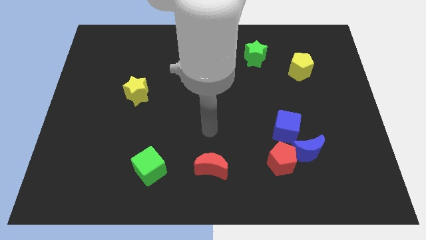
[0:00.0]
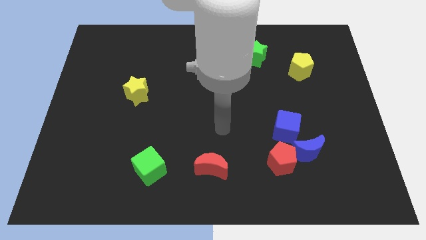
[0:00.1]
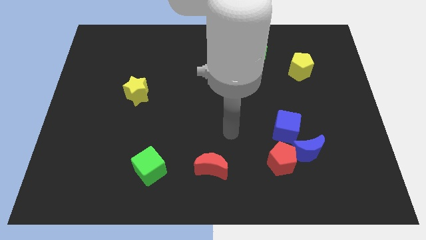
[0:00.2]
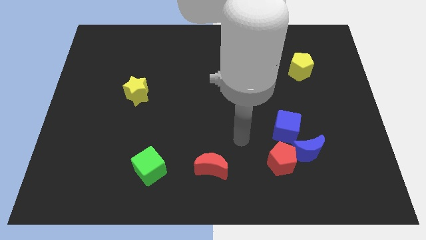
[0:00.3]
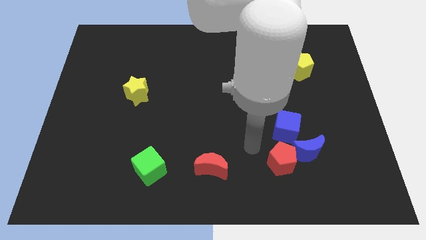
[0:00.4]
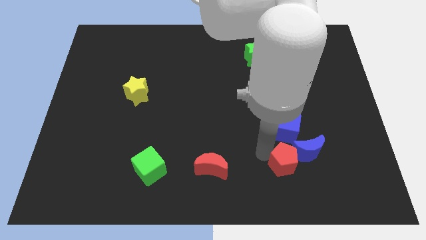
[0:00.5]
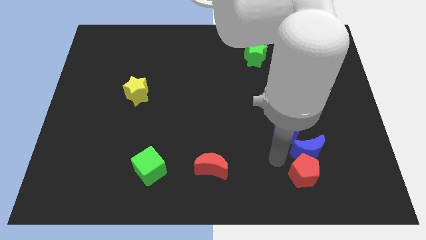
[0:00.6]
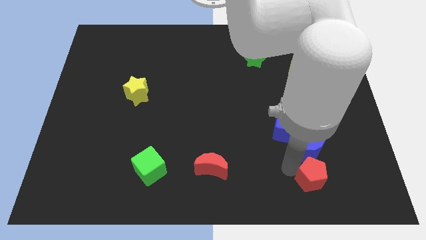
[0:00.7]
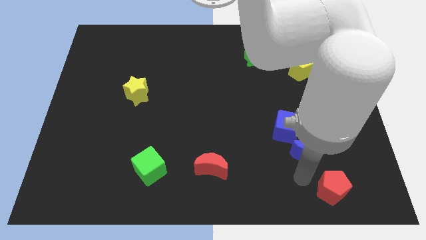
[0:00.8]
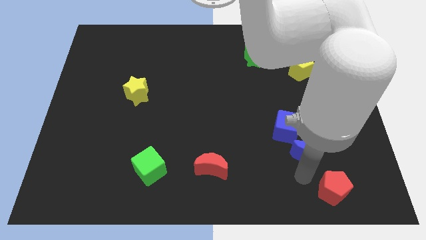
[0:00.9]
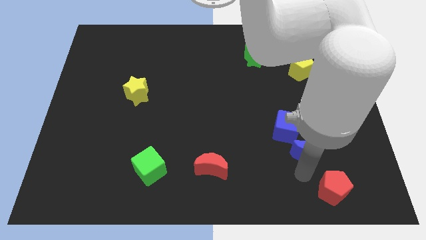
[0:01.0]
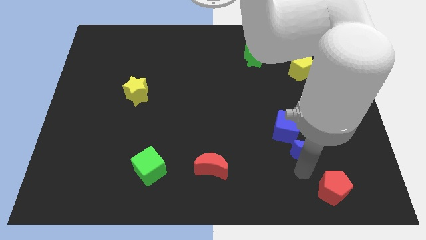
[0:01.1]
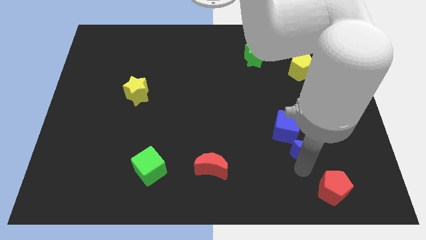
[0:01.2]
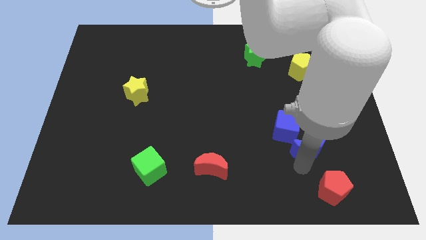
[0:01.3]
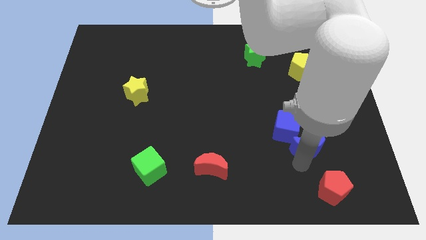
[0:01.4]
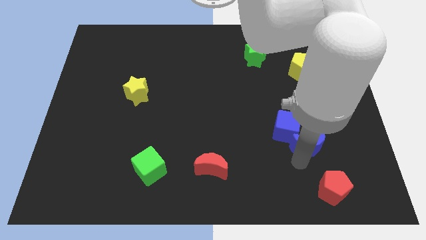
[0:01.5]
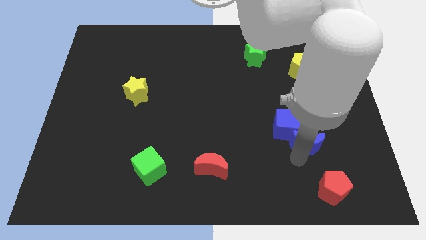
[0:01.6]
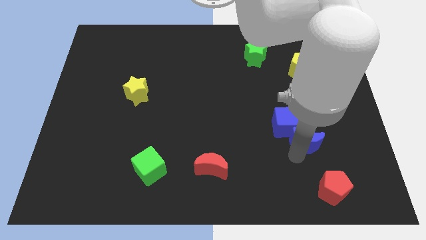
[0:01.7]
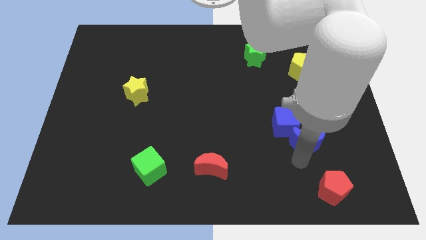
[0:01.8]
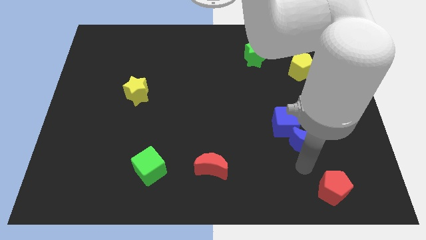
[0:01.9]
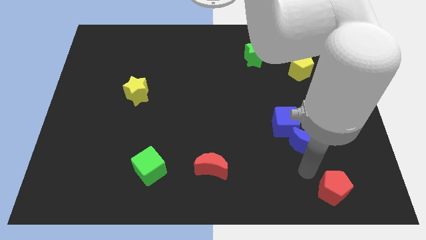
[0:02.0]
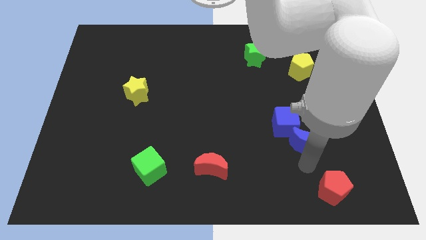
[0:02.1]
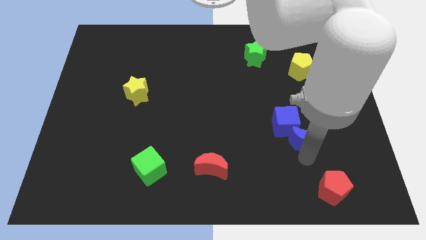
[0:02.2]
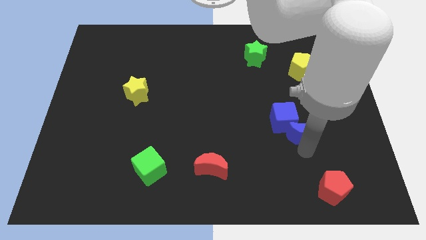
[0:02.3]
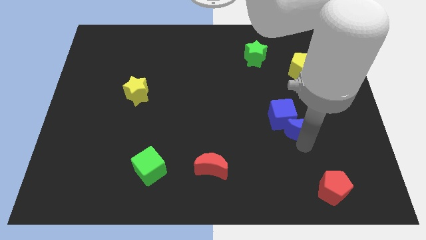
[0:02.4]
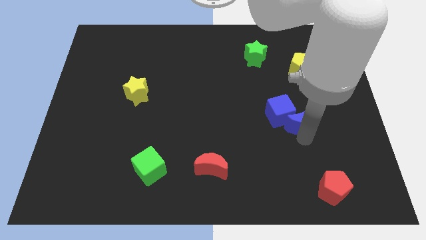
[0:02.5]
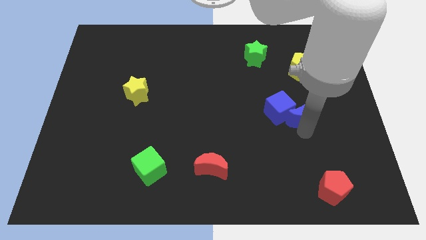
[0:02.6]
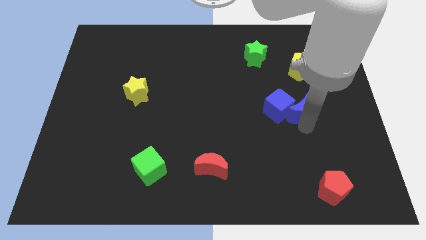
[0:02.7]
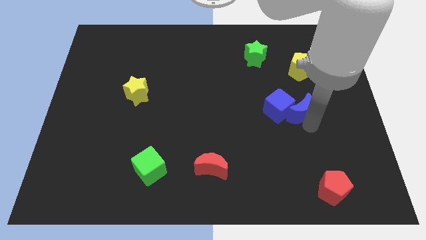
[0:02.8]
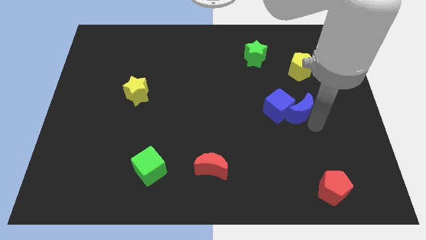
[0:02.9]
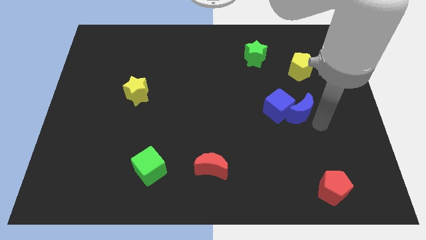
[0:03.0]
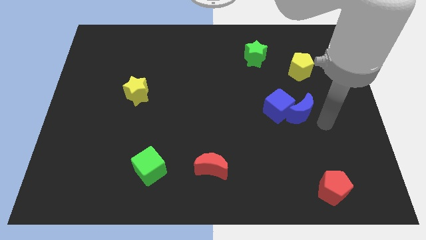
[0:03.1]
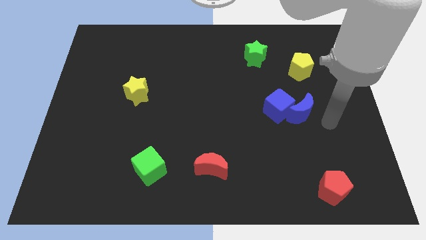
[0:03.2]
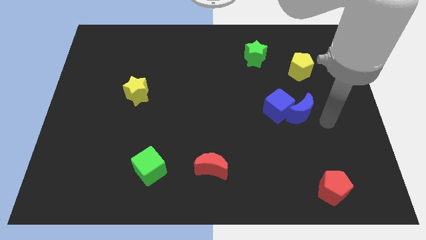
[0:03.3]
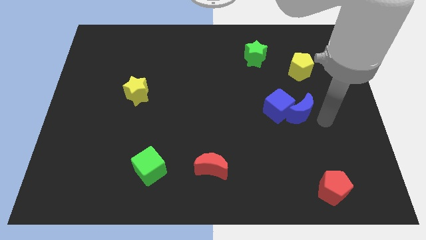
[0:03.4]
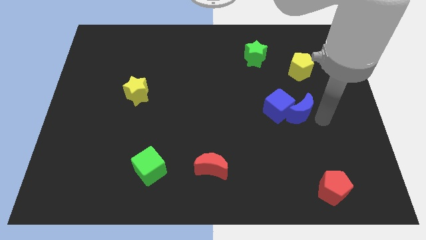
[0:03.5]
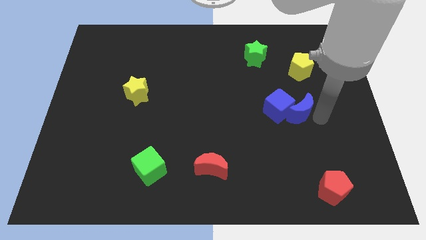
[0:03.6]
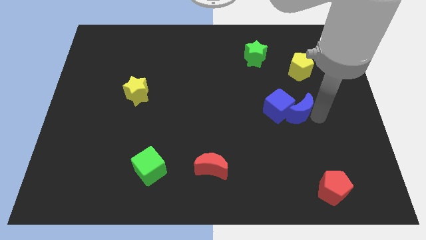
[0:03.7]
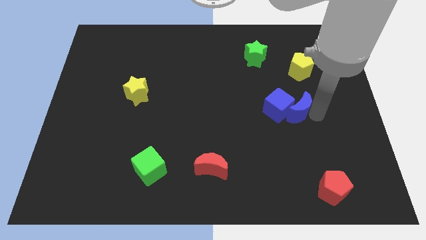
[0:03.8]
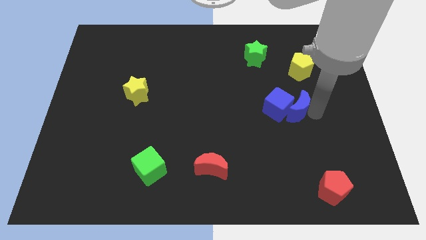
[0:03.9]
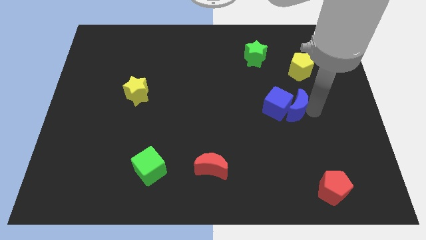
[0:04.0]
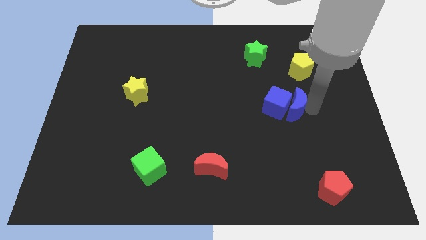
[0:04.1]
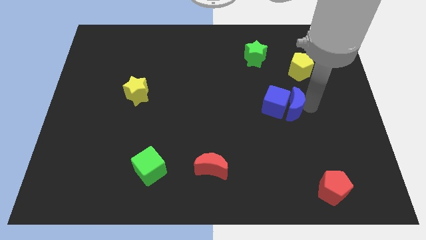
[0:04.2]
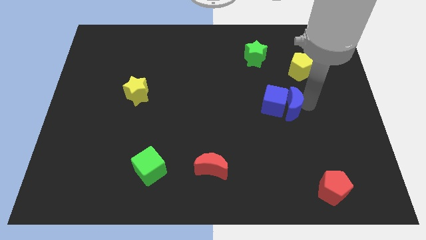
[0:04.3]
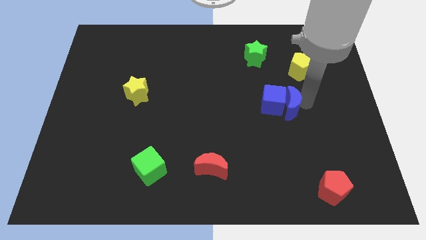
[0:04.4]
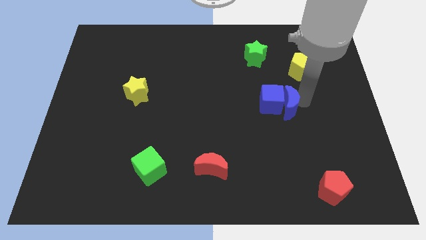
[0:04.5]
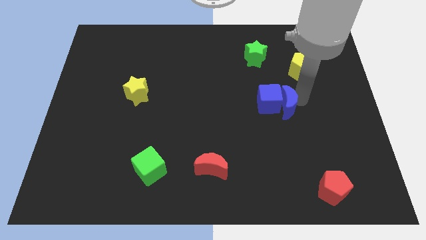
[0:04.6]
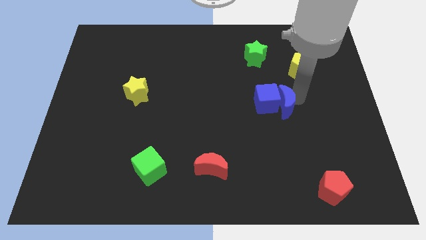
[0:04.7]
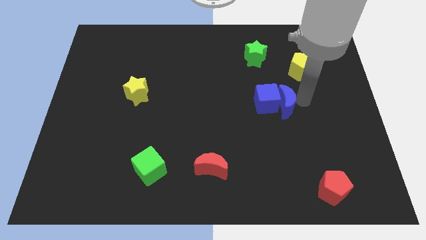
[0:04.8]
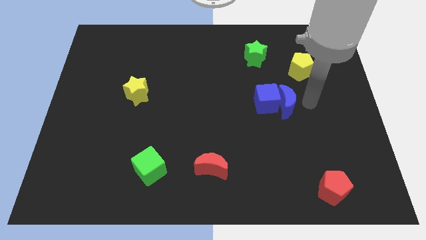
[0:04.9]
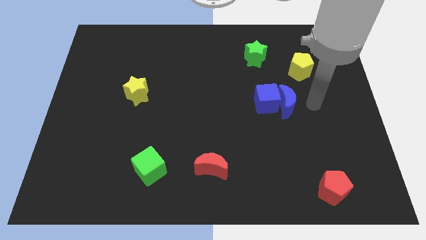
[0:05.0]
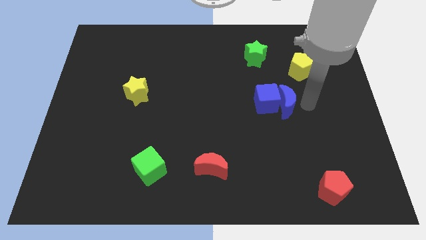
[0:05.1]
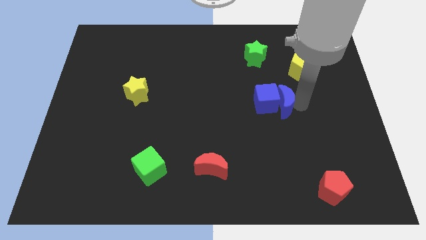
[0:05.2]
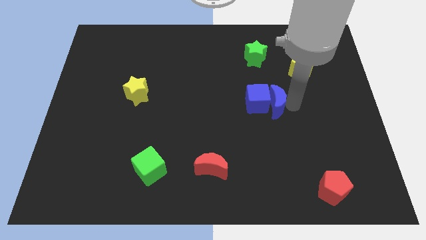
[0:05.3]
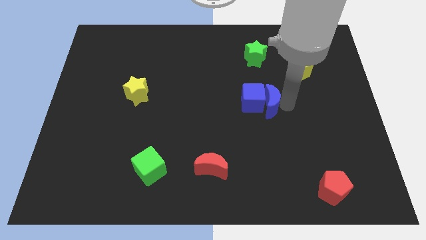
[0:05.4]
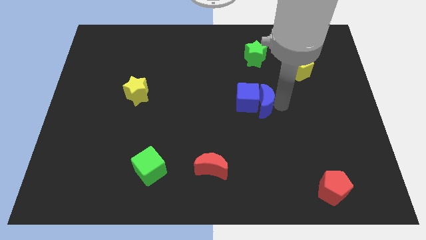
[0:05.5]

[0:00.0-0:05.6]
push the blue moon to the middle

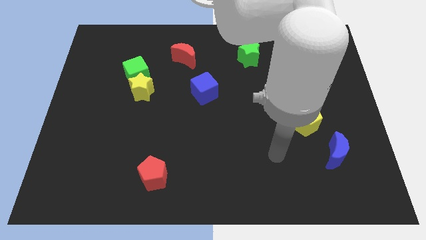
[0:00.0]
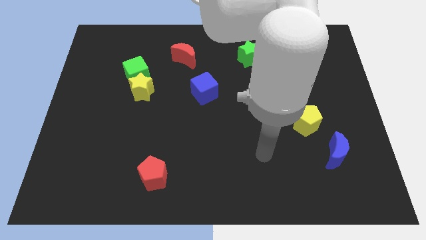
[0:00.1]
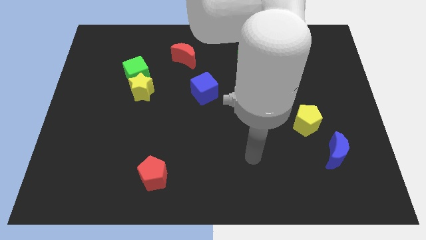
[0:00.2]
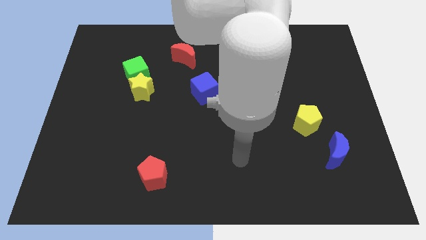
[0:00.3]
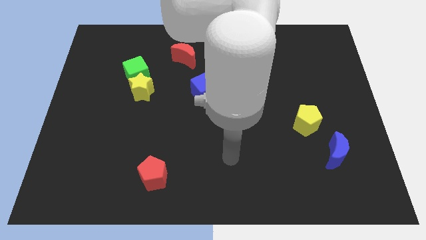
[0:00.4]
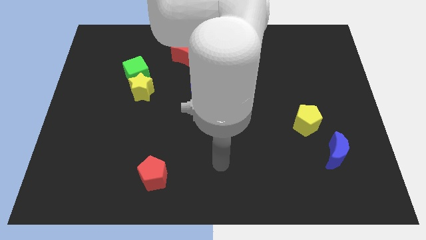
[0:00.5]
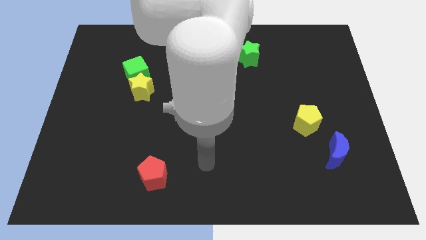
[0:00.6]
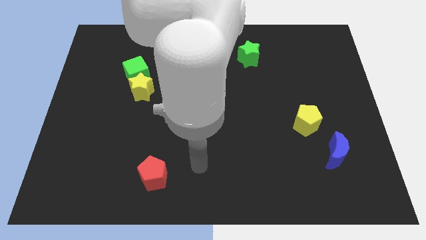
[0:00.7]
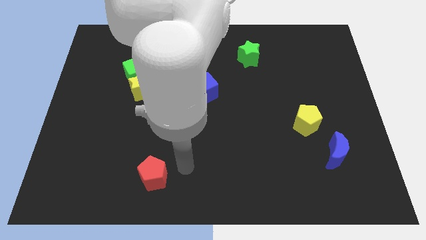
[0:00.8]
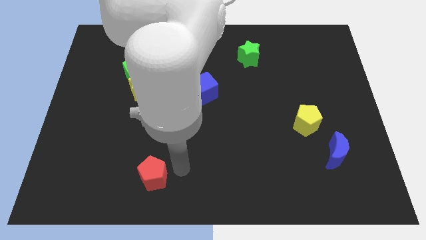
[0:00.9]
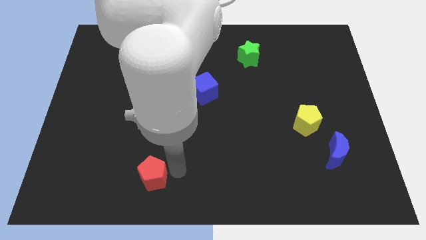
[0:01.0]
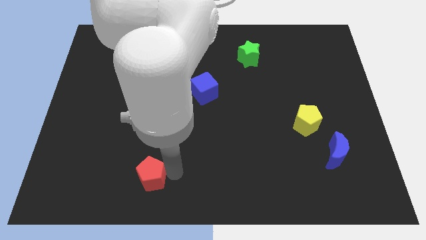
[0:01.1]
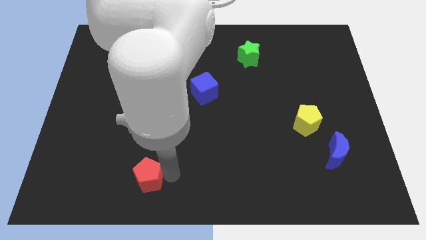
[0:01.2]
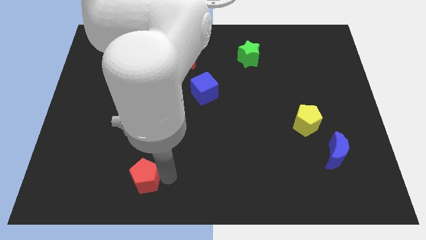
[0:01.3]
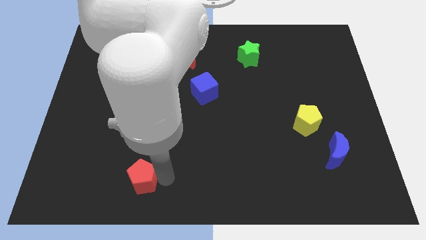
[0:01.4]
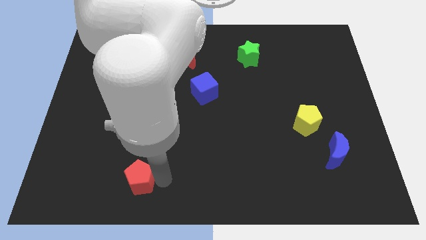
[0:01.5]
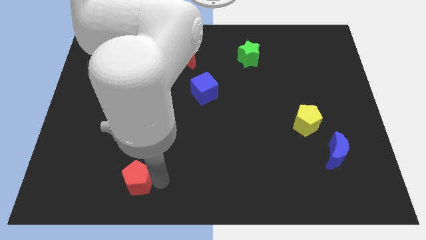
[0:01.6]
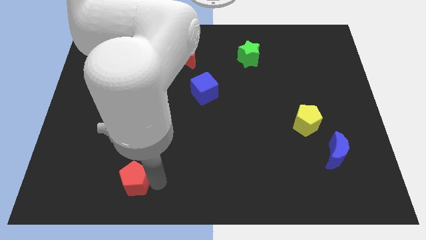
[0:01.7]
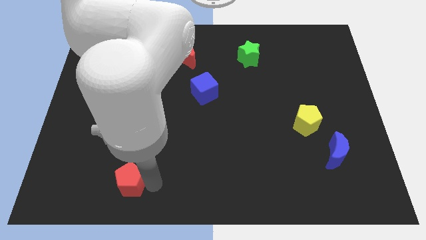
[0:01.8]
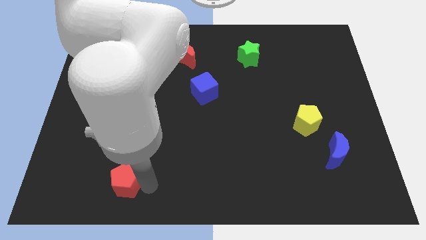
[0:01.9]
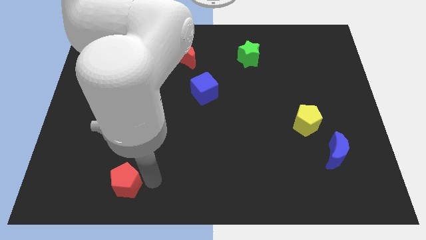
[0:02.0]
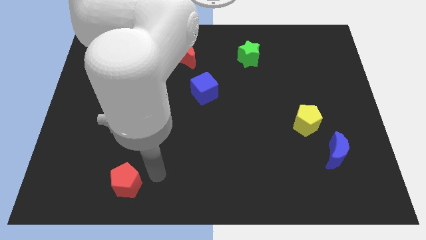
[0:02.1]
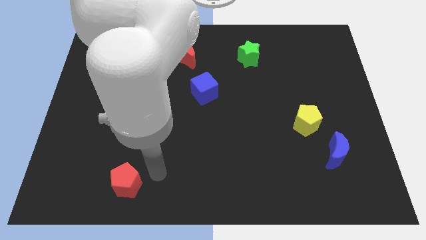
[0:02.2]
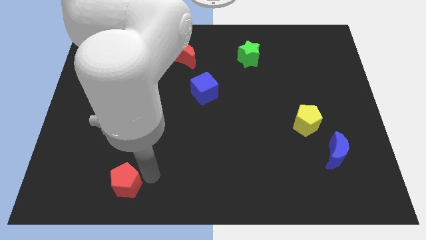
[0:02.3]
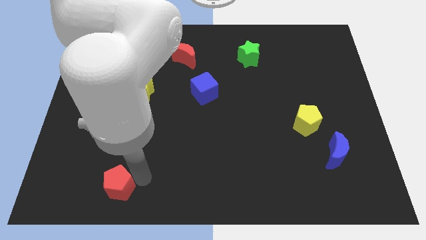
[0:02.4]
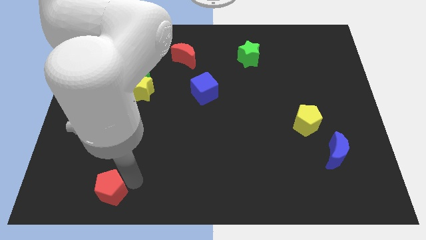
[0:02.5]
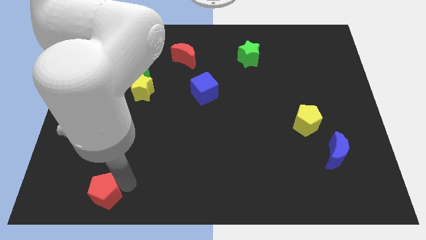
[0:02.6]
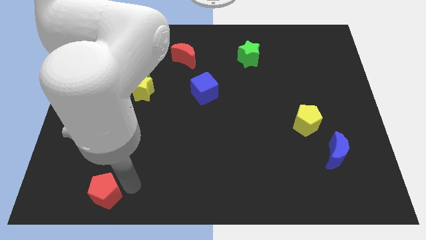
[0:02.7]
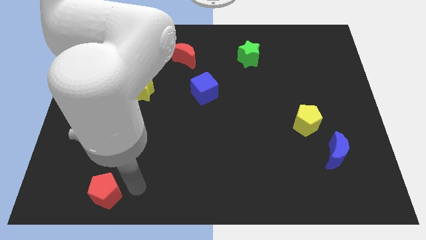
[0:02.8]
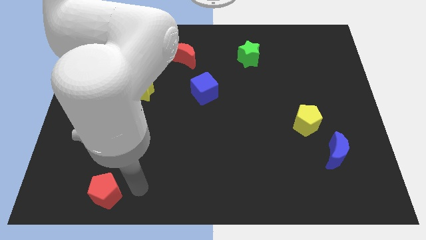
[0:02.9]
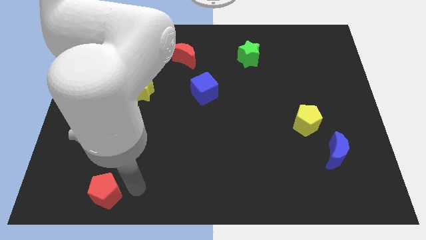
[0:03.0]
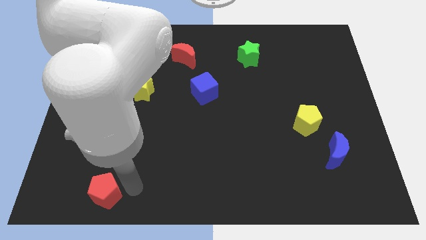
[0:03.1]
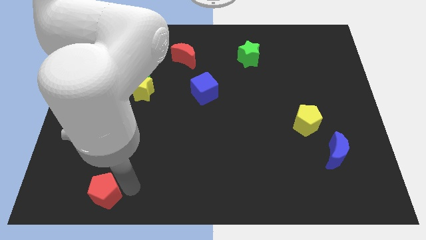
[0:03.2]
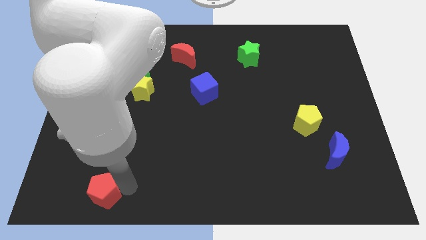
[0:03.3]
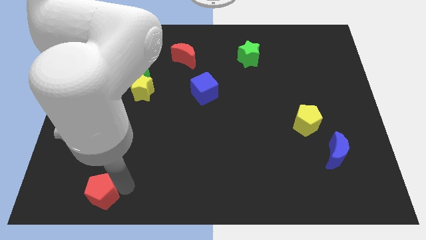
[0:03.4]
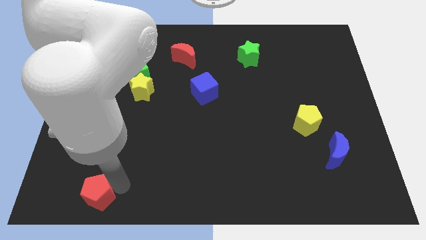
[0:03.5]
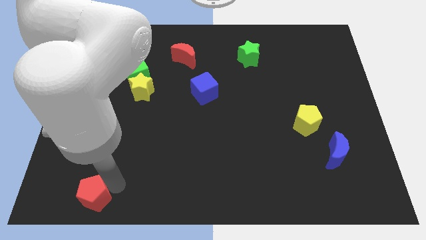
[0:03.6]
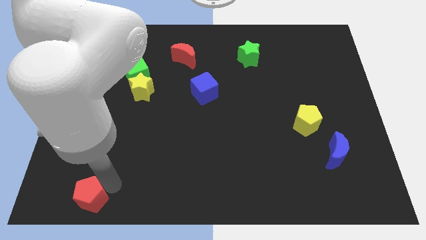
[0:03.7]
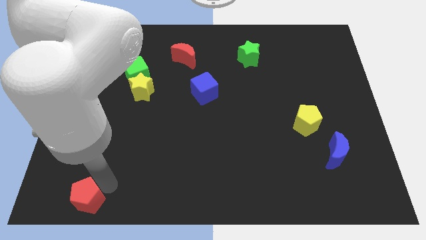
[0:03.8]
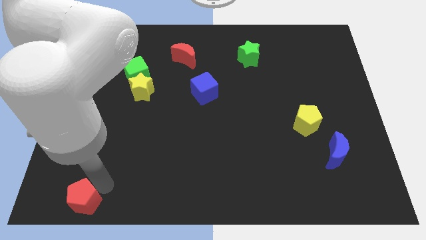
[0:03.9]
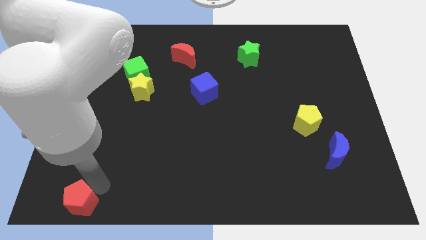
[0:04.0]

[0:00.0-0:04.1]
push the red pentagon to the lower left corner
